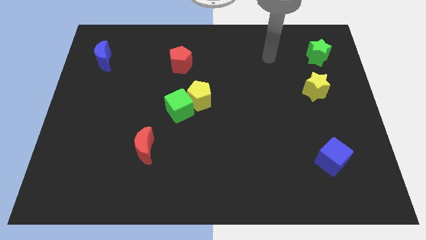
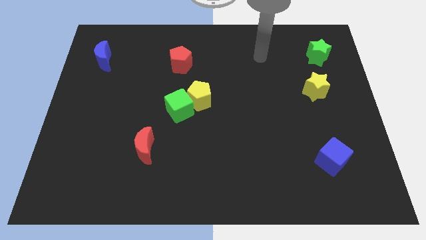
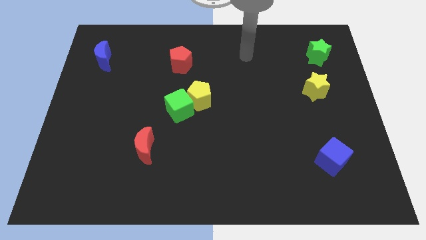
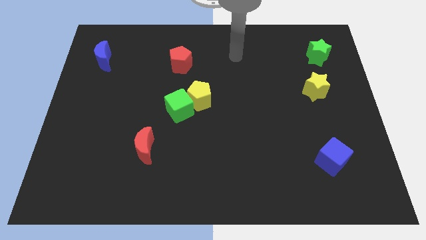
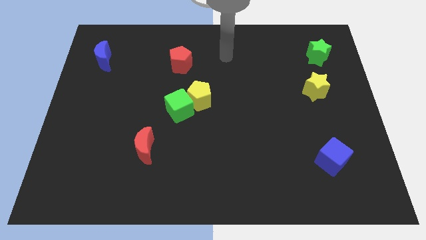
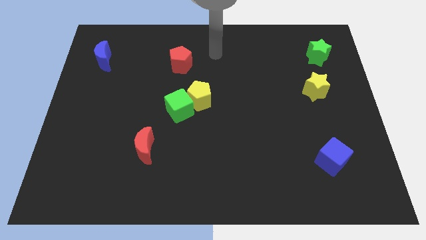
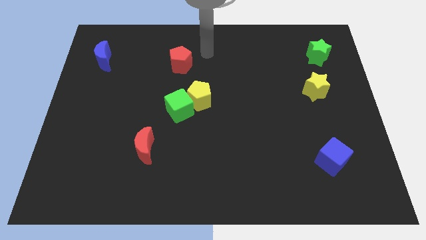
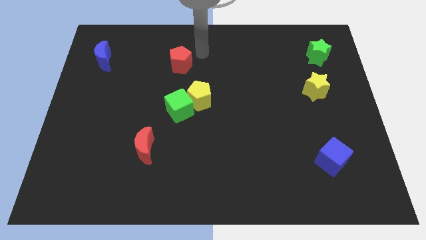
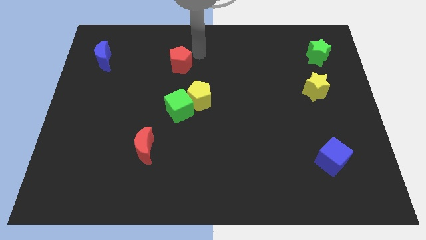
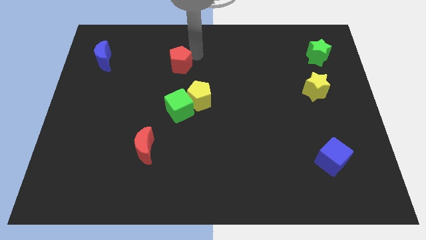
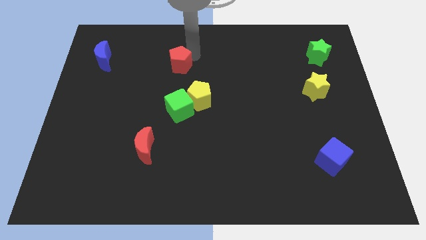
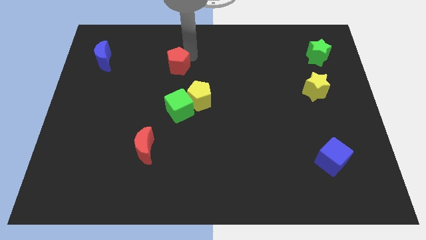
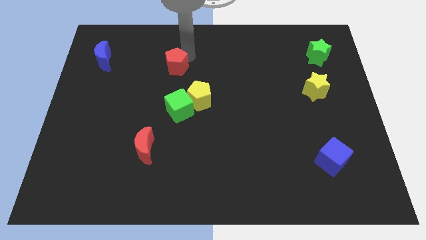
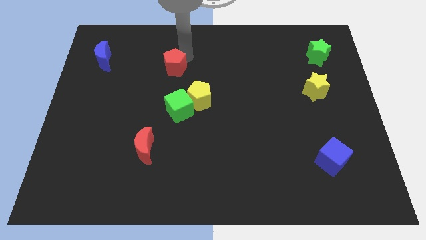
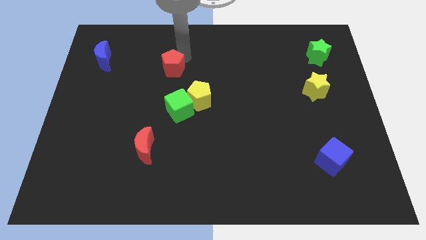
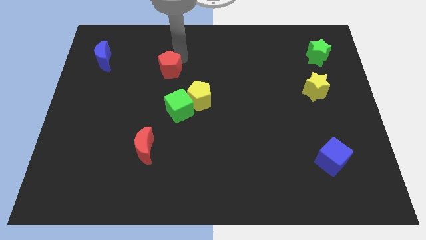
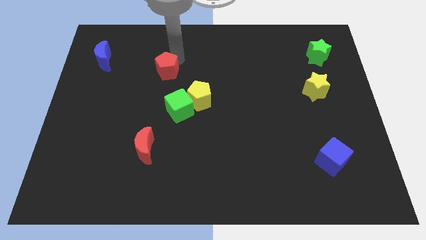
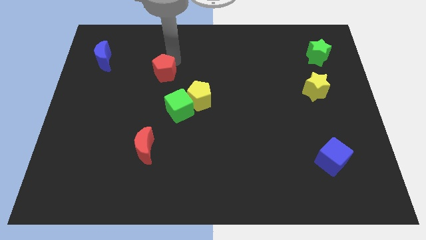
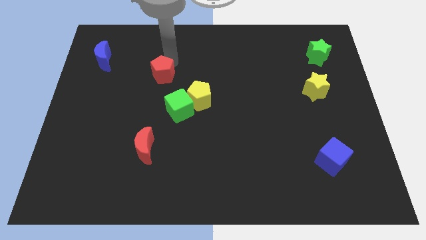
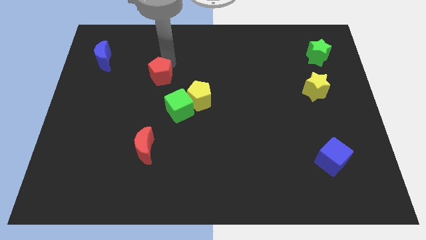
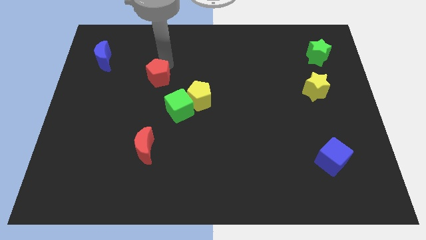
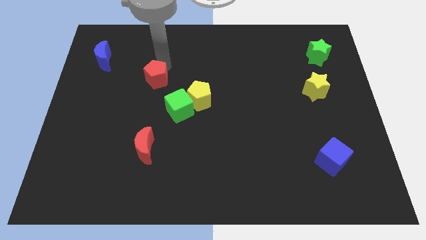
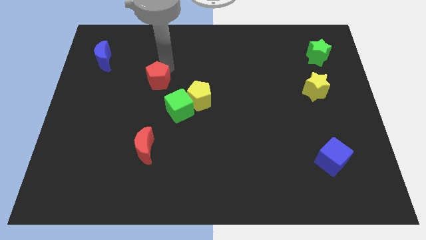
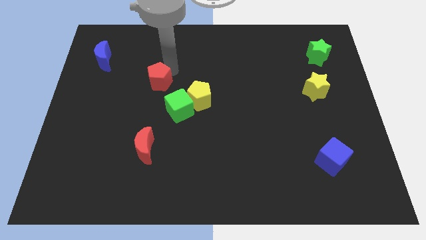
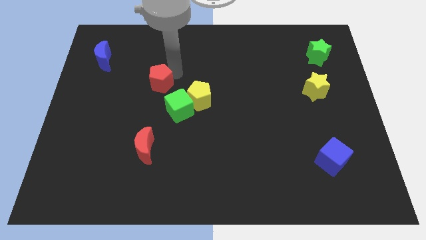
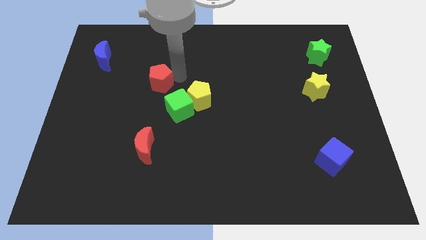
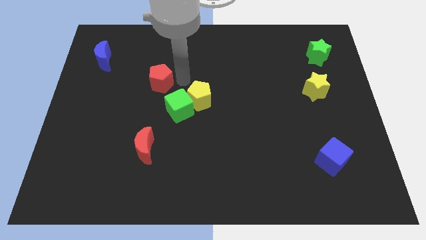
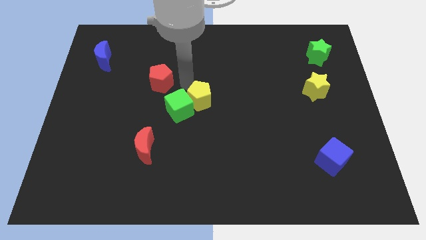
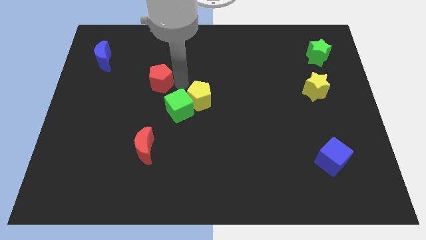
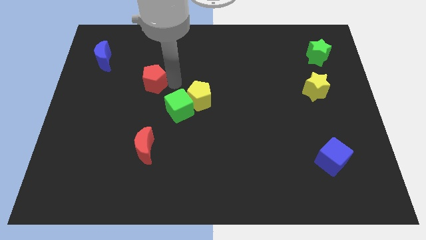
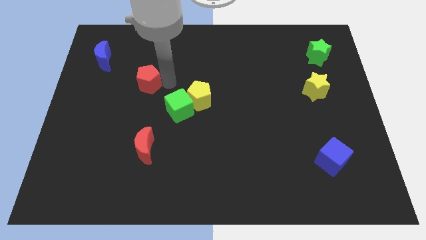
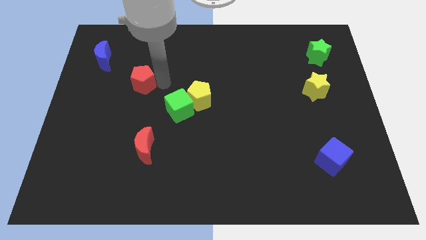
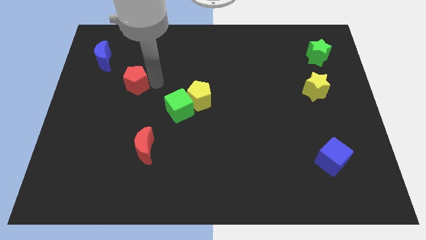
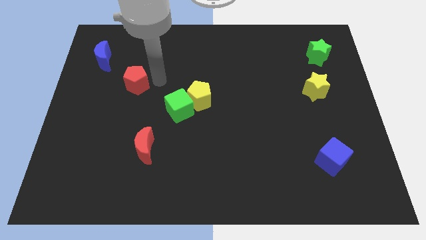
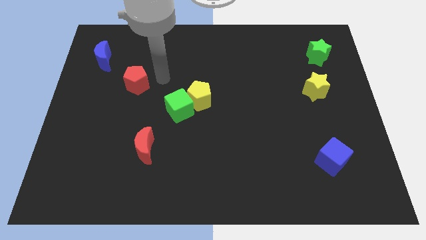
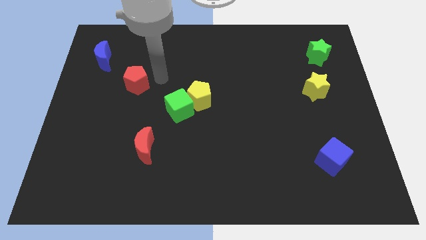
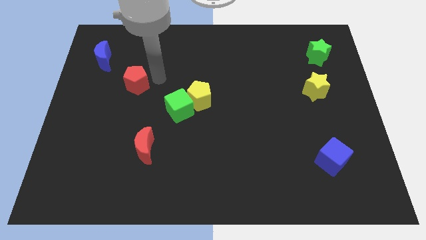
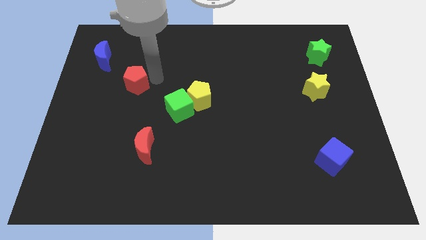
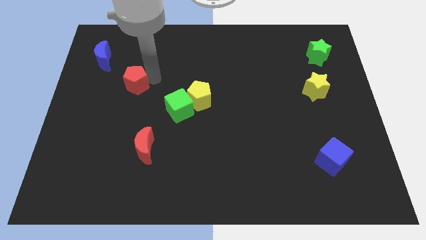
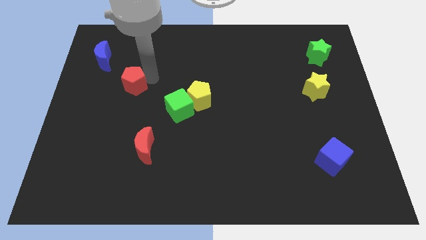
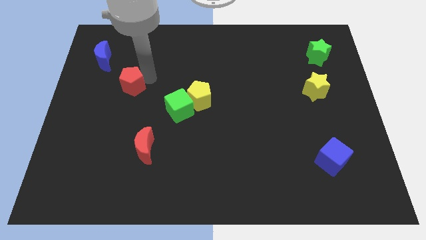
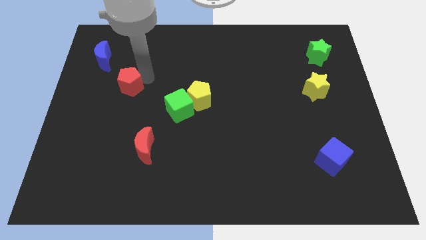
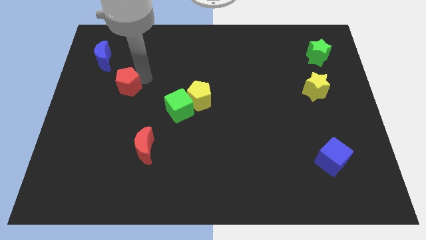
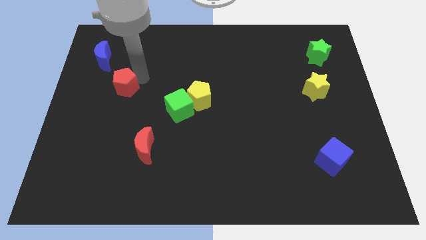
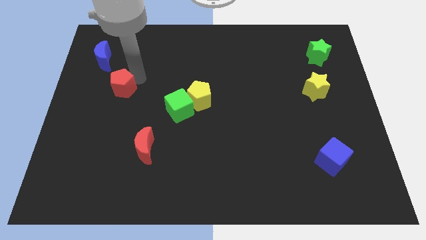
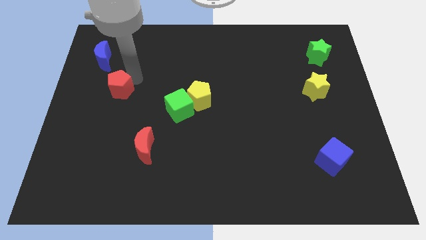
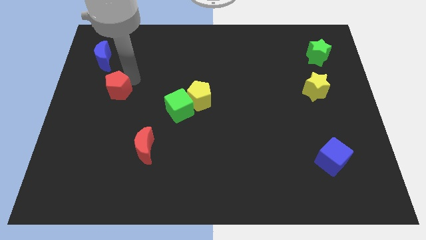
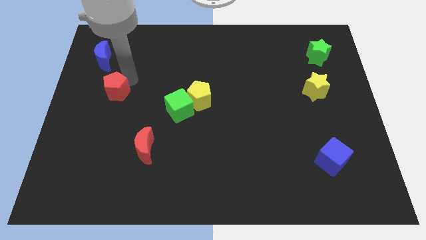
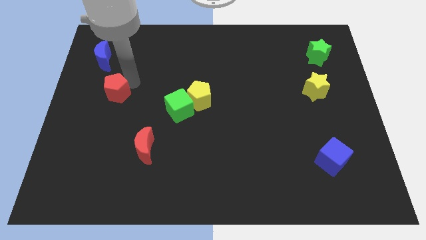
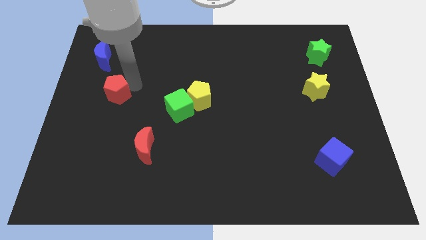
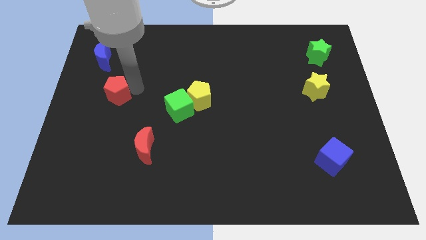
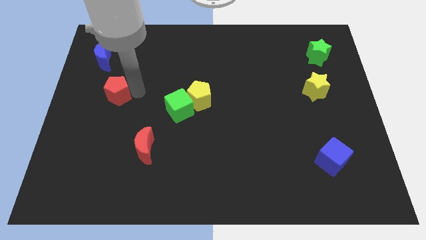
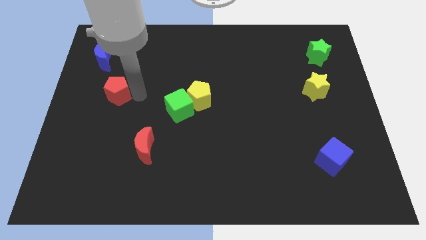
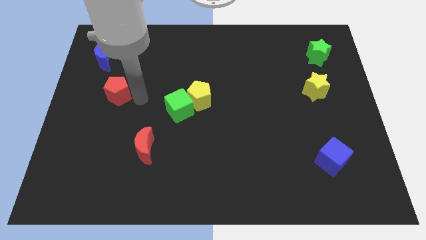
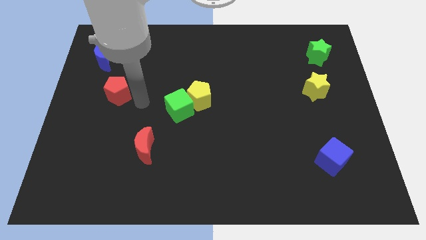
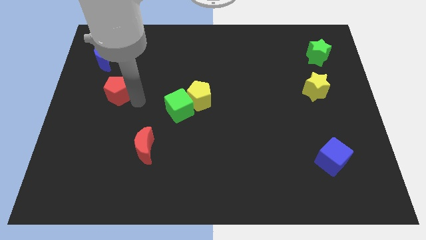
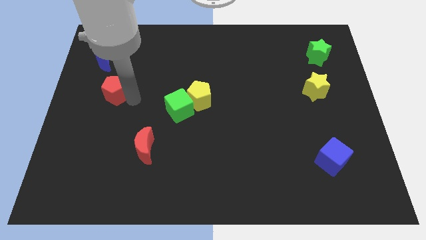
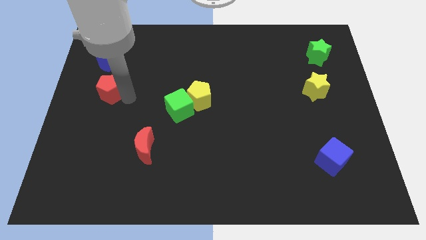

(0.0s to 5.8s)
slide the red pentagon to the left side

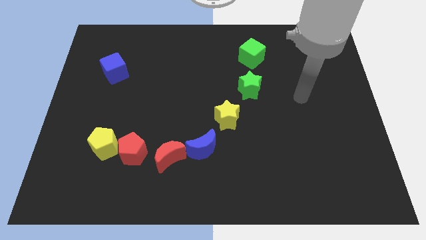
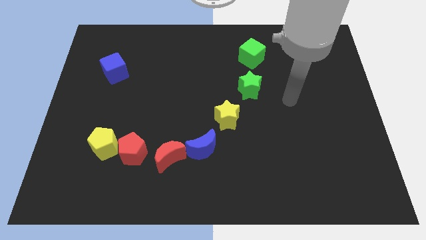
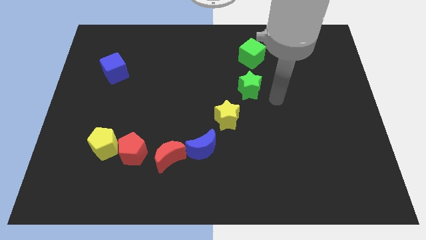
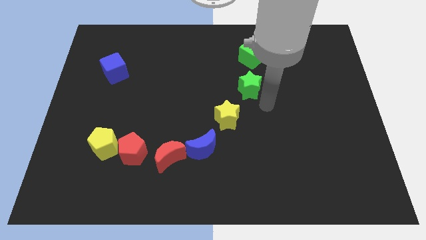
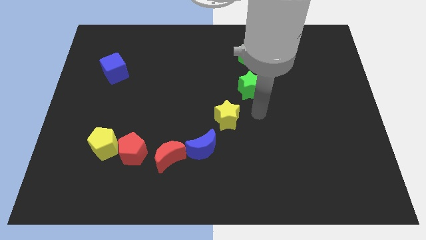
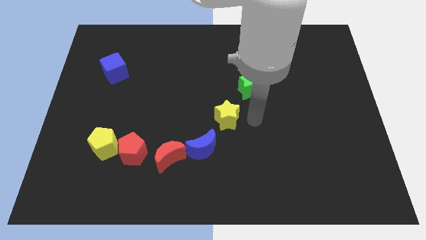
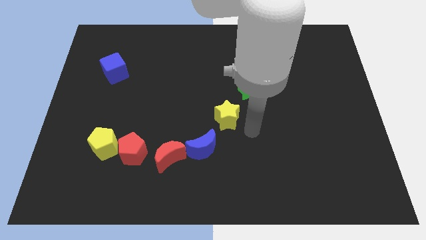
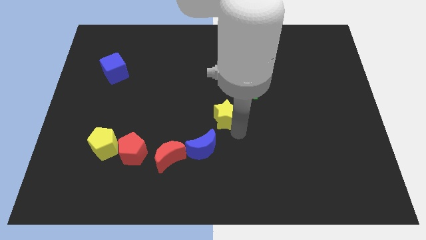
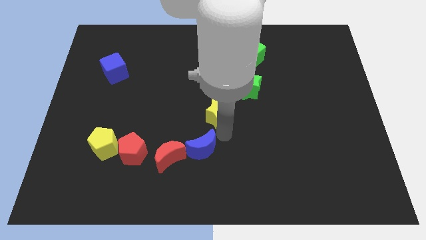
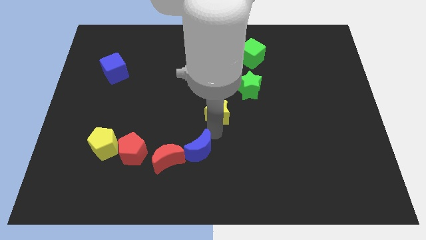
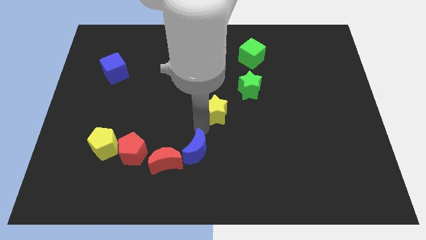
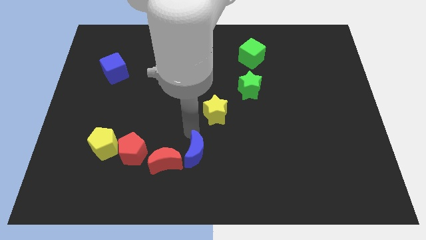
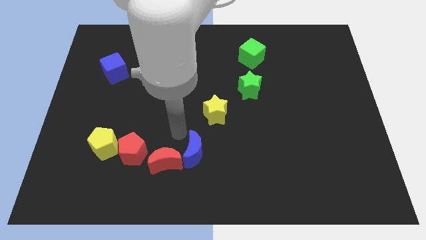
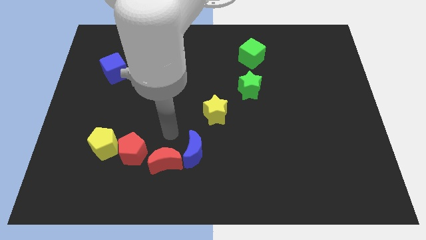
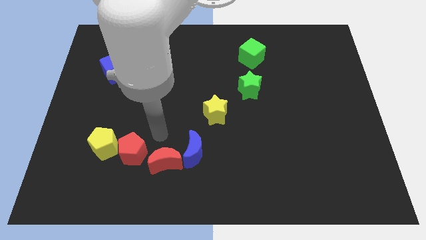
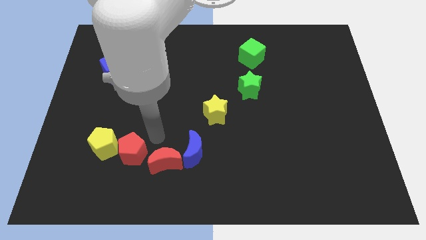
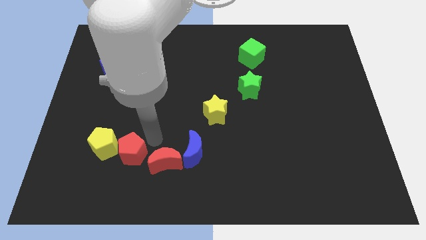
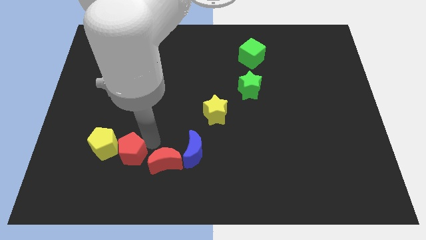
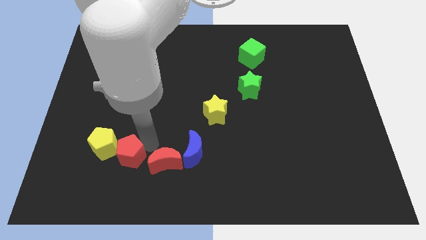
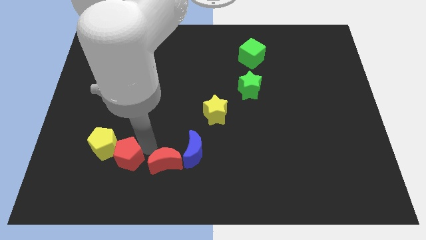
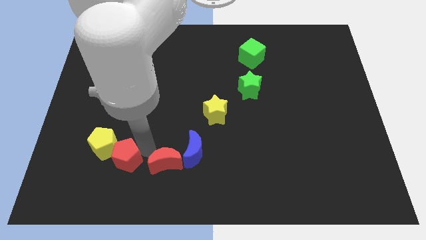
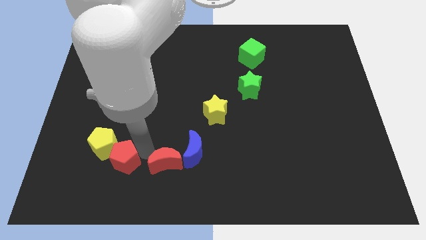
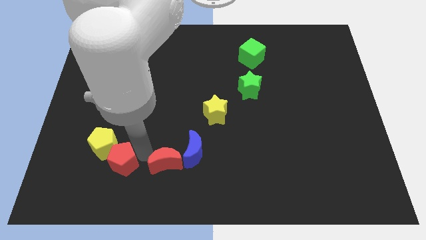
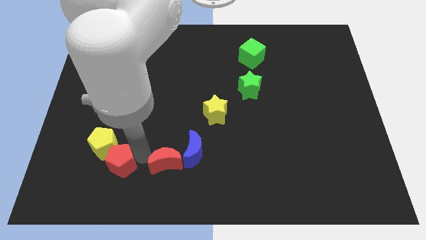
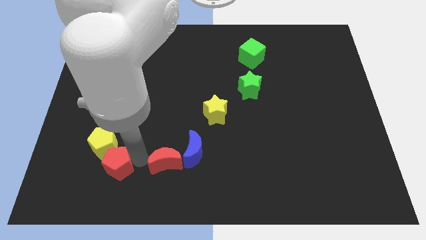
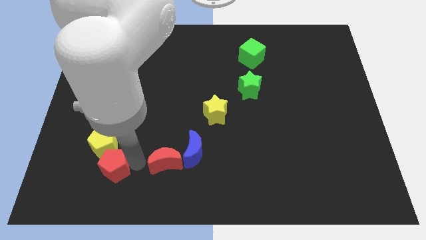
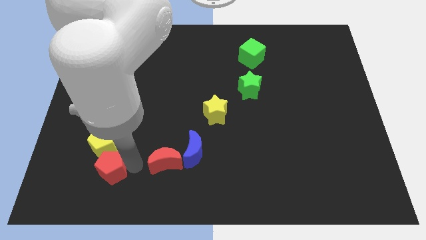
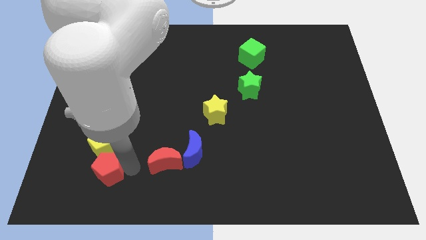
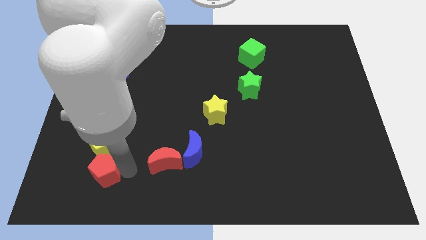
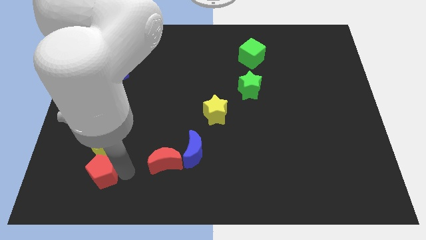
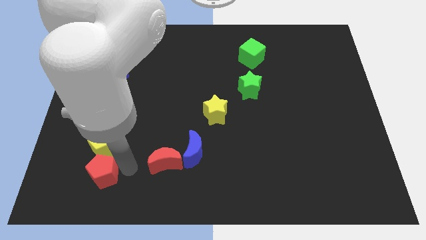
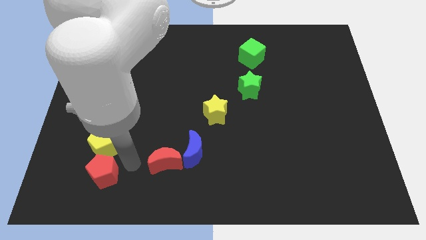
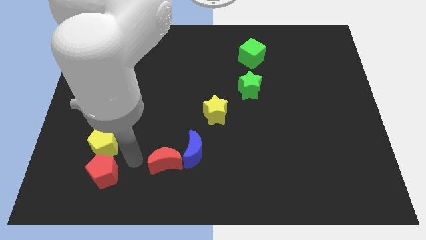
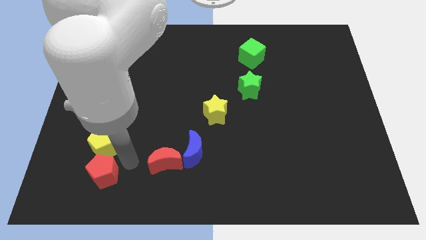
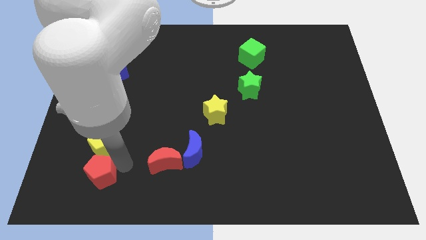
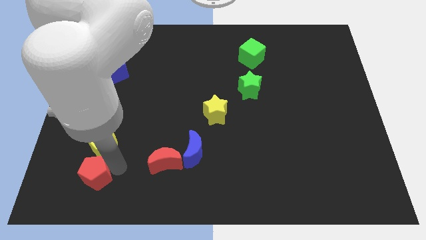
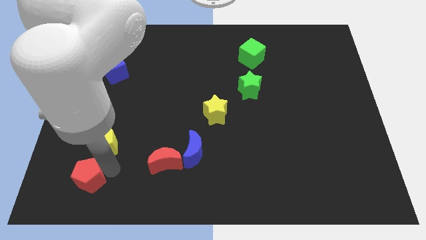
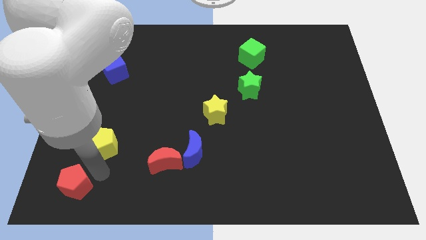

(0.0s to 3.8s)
put the red pentagon to the bottom left corner
